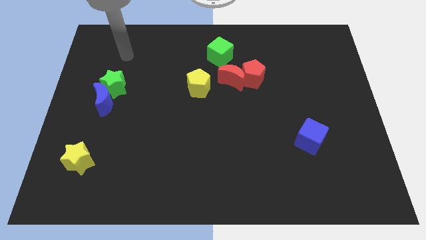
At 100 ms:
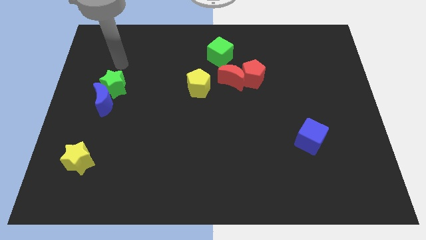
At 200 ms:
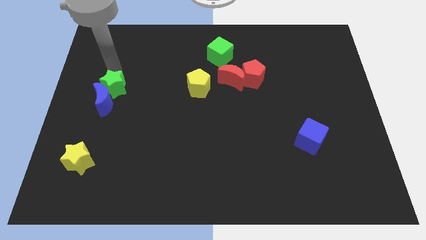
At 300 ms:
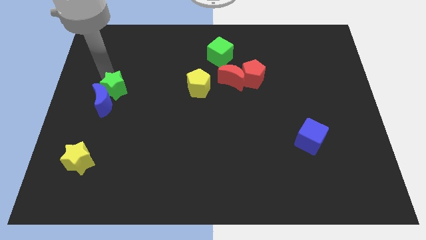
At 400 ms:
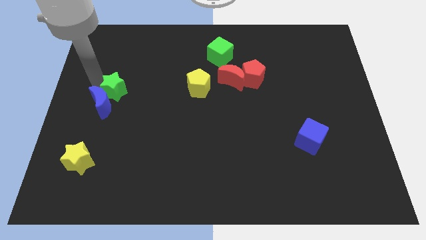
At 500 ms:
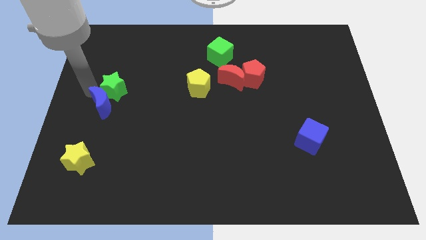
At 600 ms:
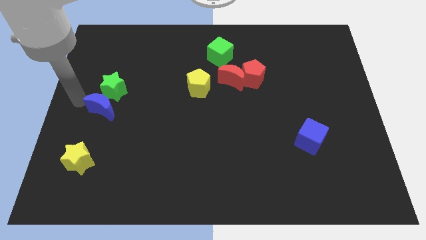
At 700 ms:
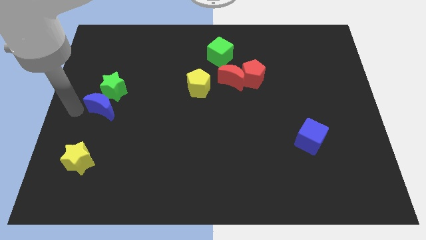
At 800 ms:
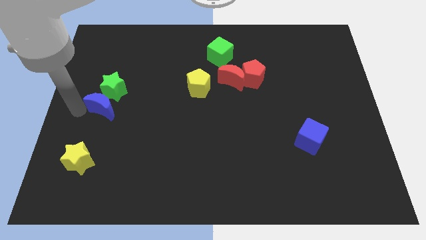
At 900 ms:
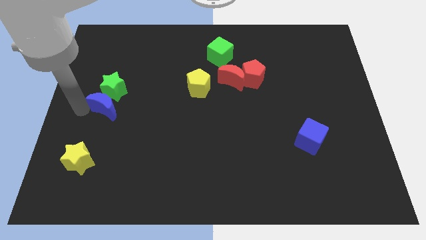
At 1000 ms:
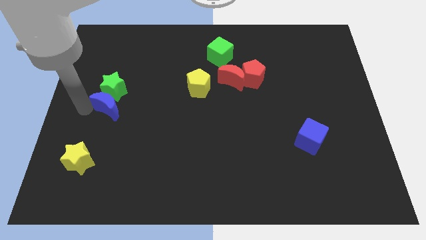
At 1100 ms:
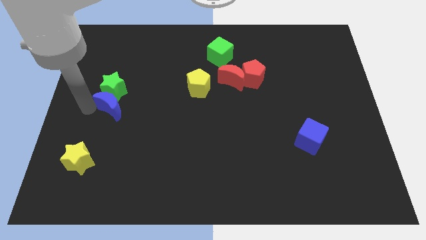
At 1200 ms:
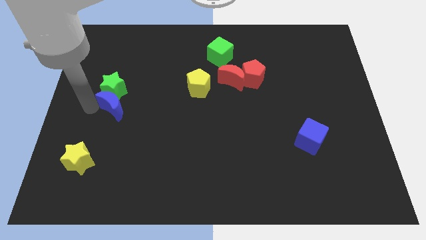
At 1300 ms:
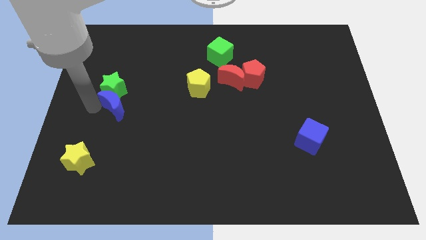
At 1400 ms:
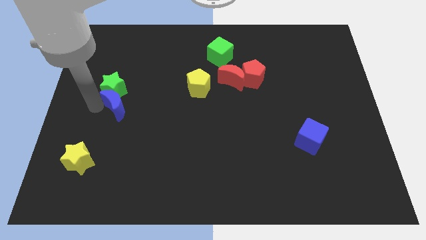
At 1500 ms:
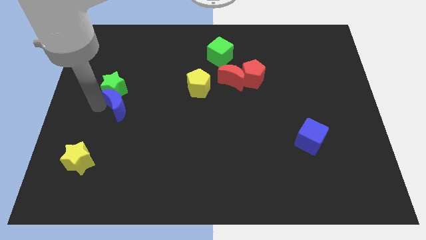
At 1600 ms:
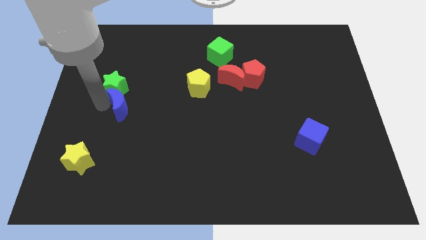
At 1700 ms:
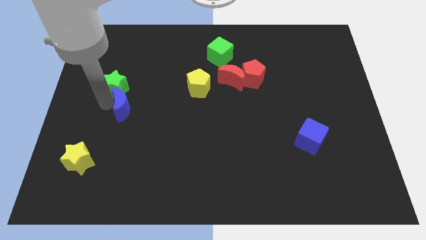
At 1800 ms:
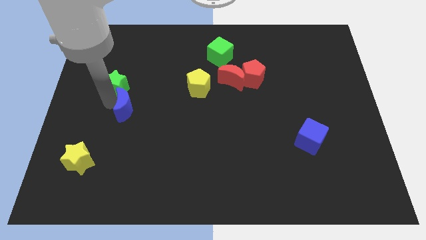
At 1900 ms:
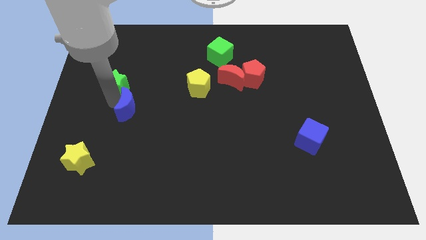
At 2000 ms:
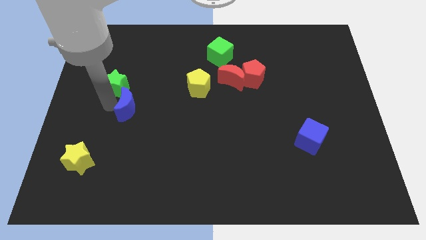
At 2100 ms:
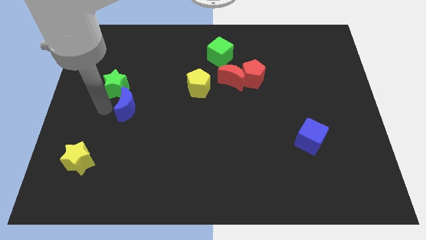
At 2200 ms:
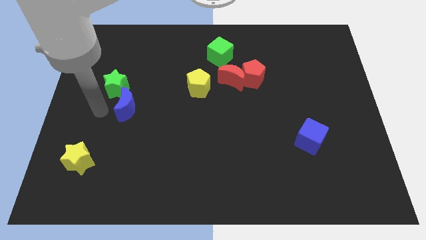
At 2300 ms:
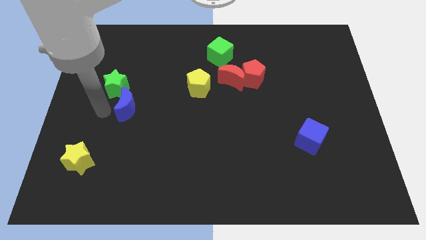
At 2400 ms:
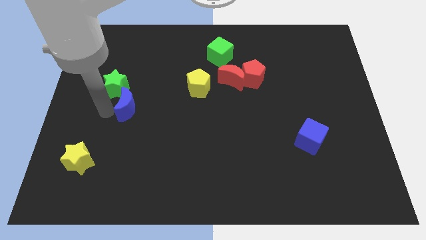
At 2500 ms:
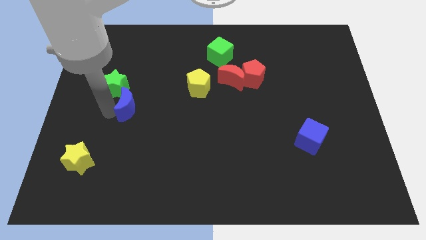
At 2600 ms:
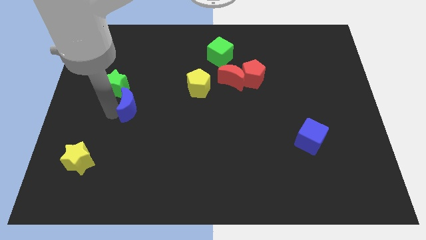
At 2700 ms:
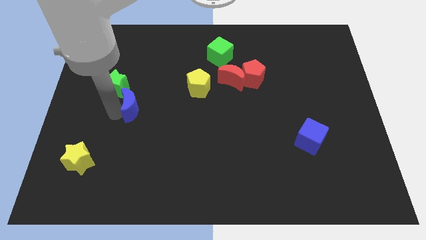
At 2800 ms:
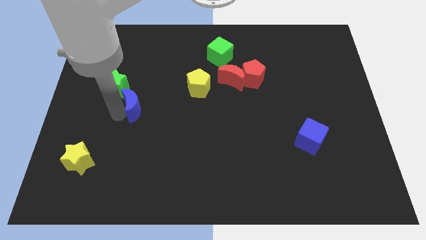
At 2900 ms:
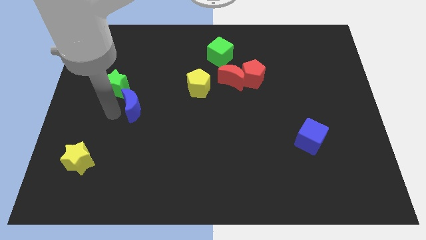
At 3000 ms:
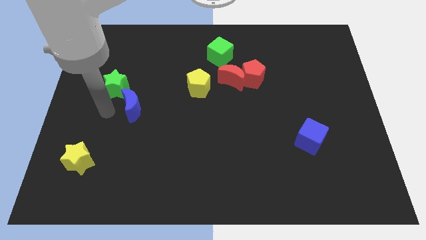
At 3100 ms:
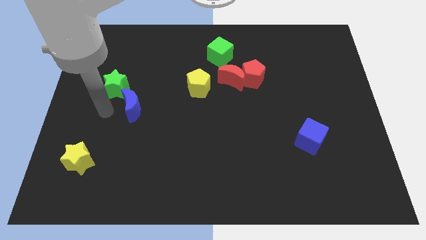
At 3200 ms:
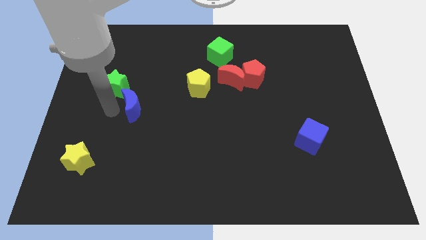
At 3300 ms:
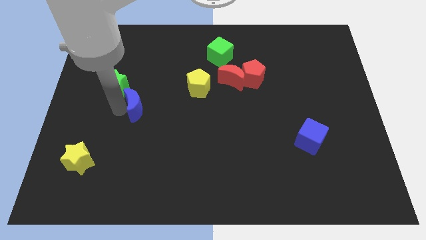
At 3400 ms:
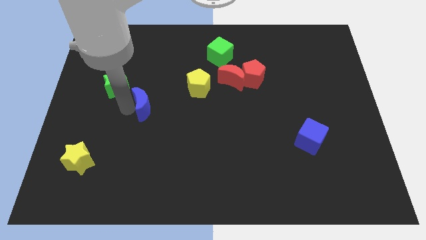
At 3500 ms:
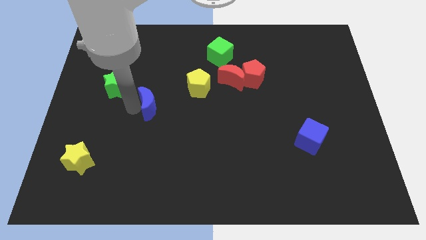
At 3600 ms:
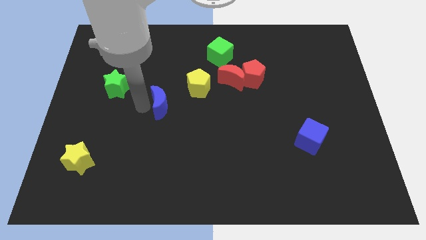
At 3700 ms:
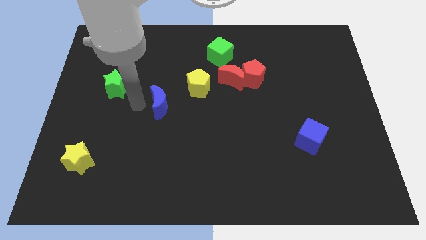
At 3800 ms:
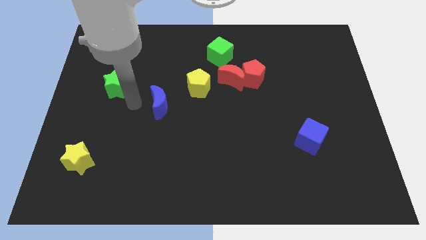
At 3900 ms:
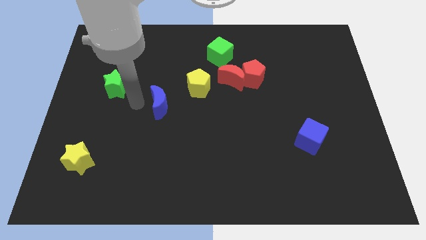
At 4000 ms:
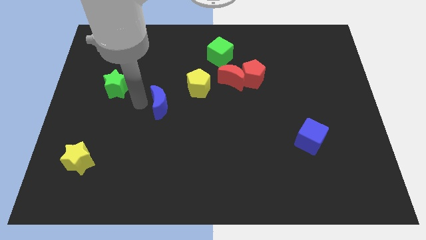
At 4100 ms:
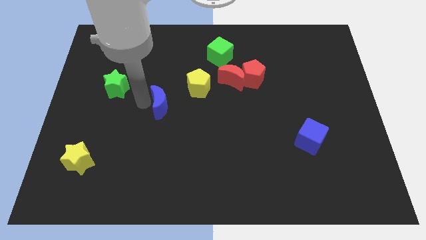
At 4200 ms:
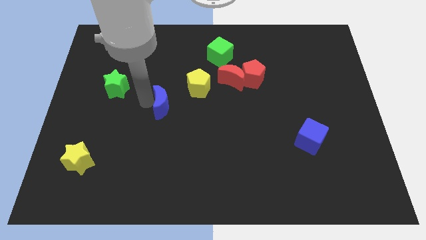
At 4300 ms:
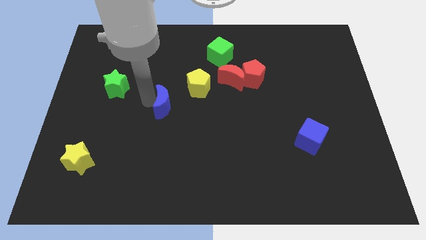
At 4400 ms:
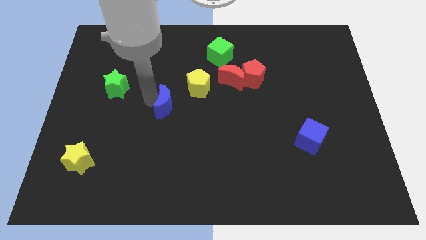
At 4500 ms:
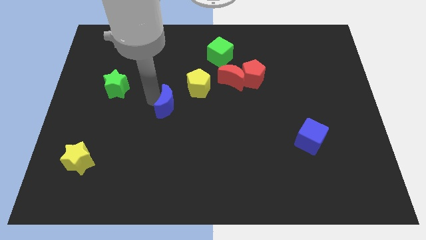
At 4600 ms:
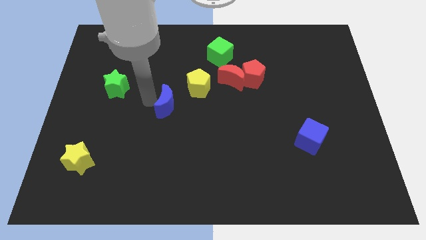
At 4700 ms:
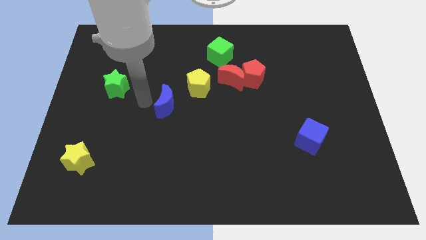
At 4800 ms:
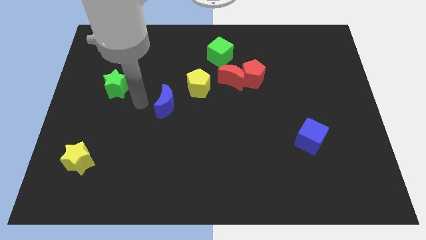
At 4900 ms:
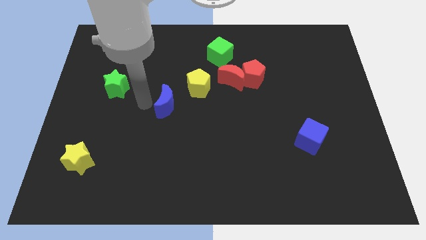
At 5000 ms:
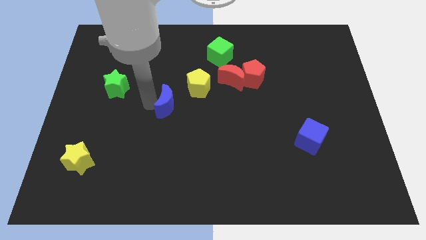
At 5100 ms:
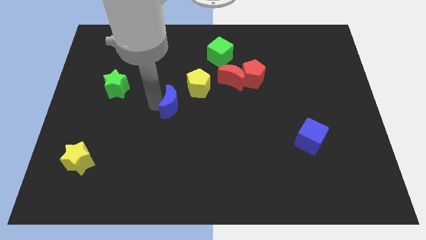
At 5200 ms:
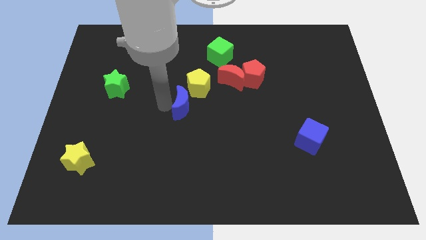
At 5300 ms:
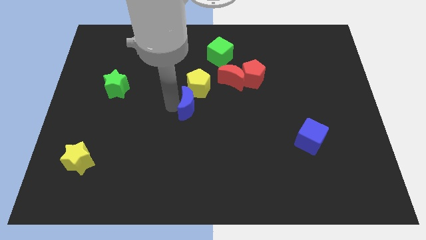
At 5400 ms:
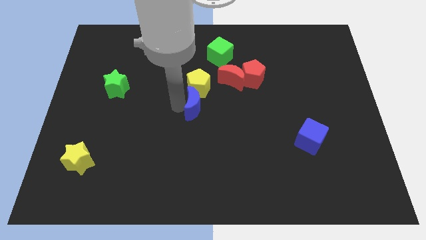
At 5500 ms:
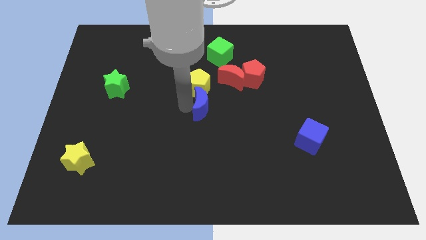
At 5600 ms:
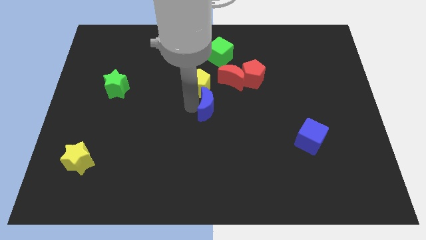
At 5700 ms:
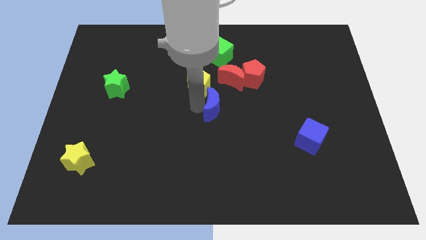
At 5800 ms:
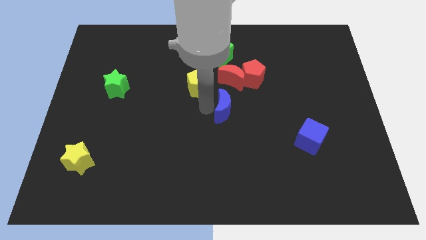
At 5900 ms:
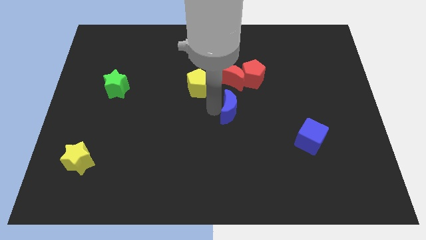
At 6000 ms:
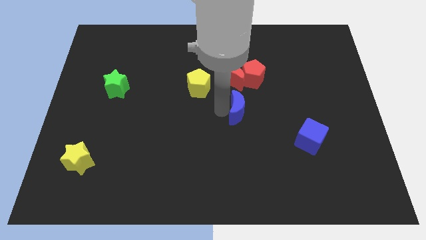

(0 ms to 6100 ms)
put the blue moon below the red pentagon

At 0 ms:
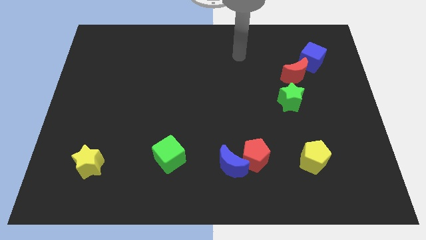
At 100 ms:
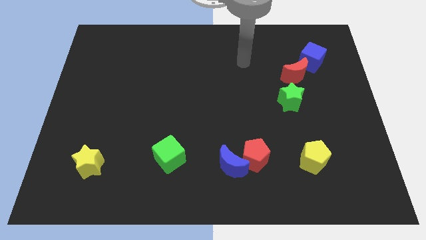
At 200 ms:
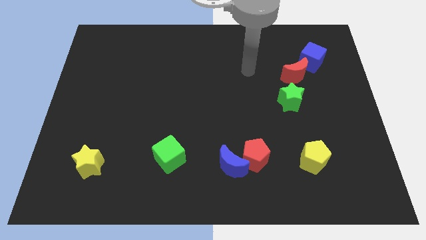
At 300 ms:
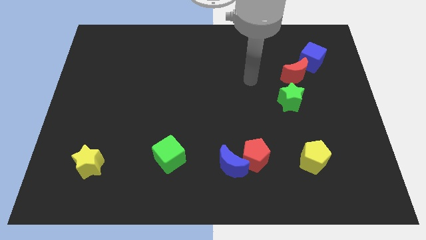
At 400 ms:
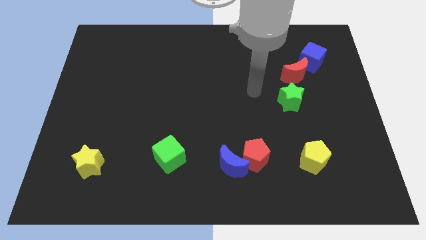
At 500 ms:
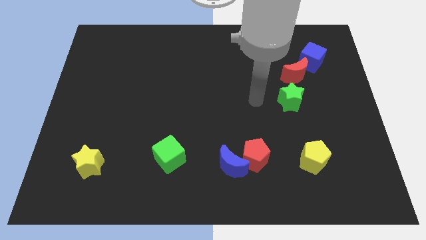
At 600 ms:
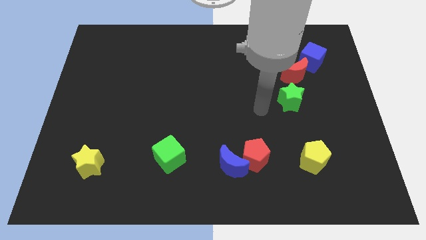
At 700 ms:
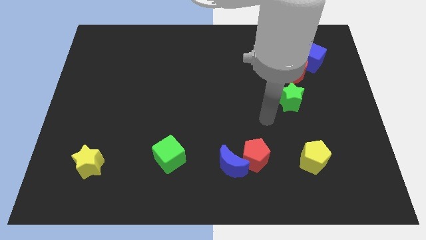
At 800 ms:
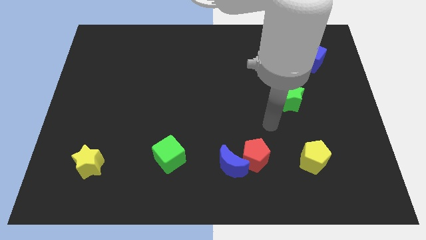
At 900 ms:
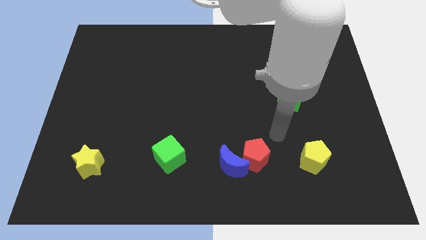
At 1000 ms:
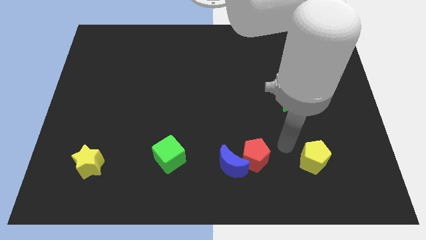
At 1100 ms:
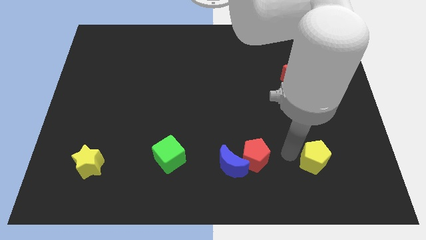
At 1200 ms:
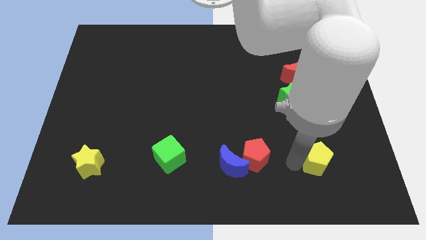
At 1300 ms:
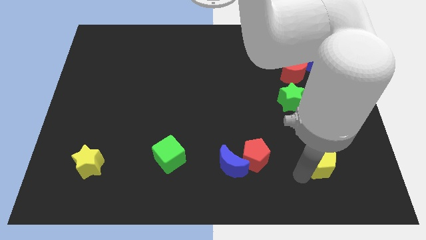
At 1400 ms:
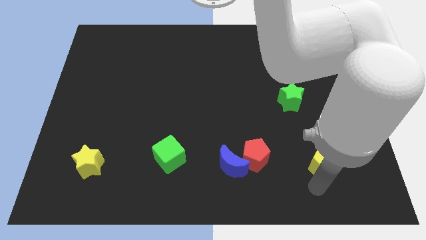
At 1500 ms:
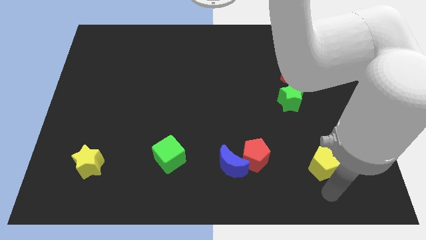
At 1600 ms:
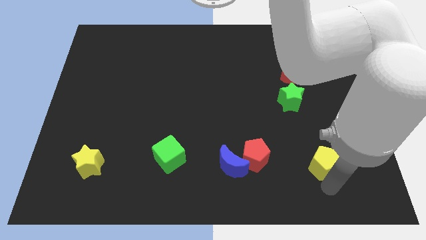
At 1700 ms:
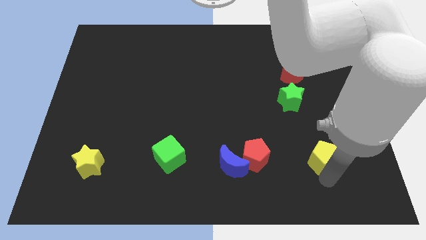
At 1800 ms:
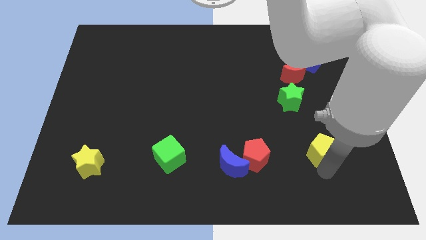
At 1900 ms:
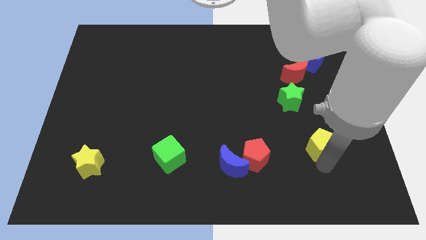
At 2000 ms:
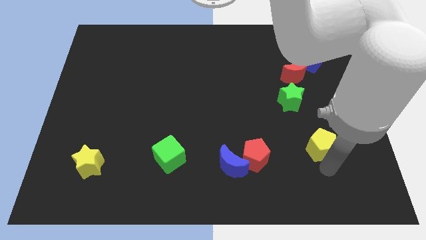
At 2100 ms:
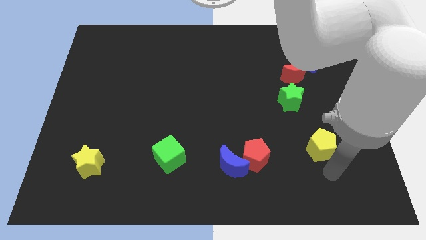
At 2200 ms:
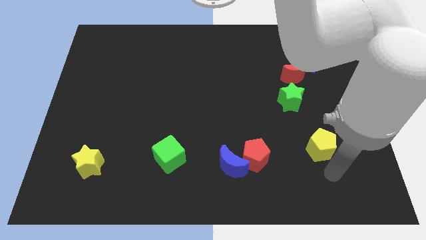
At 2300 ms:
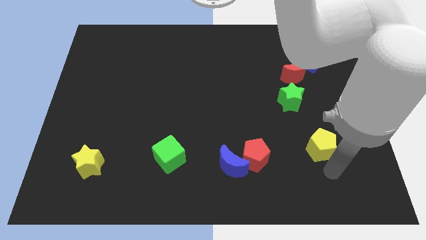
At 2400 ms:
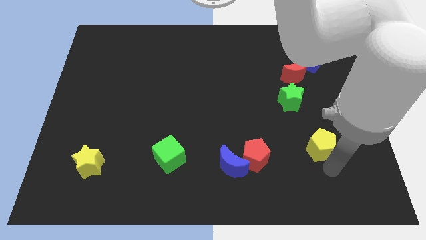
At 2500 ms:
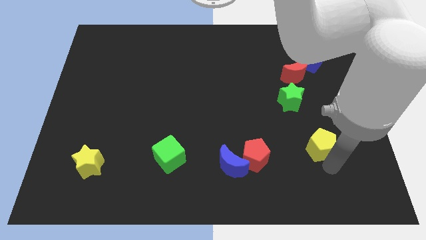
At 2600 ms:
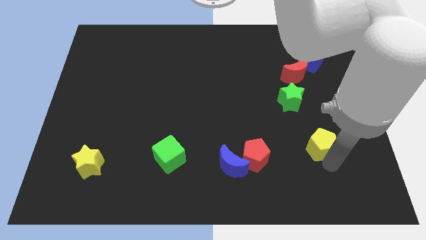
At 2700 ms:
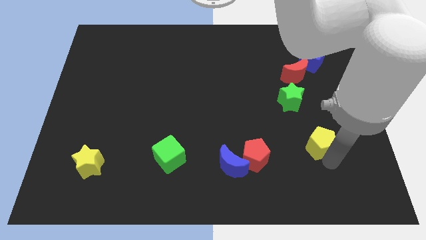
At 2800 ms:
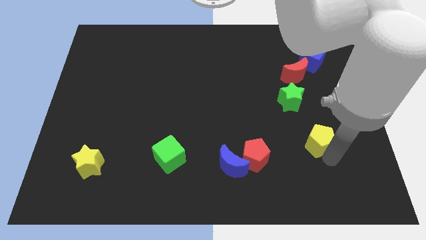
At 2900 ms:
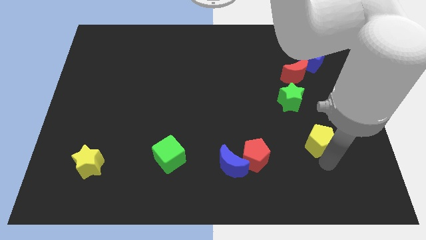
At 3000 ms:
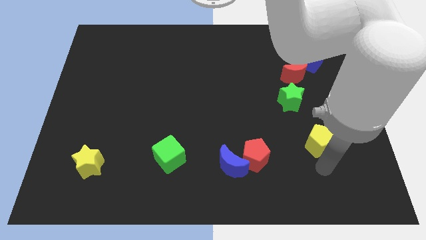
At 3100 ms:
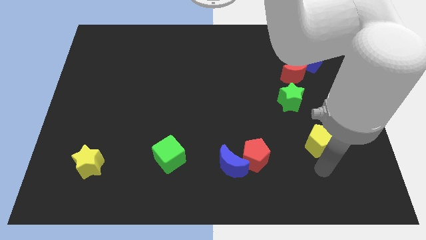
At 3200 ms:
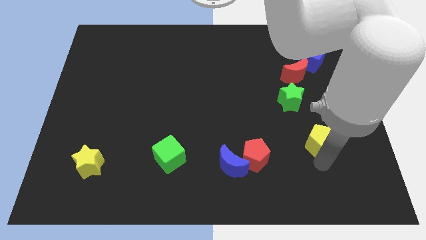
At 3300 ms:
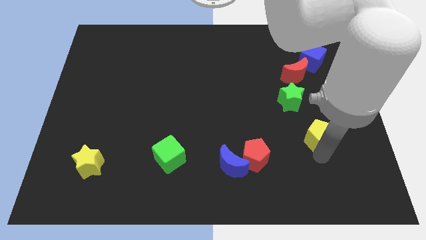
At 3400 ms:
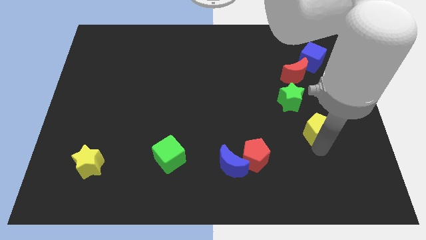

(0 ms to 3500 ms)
slide the yellow pentagon diagonally down and to the right of the green star
